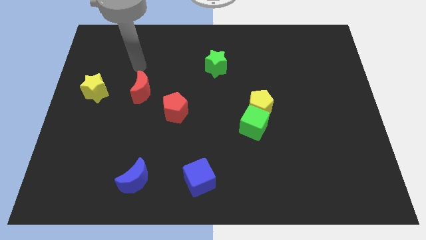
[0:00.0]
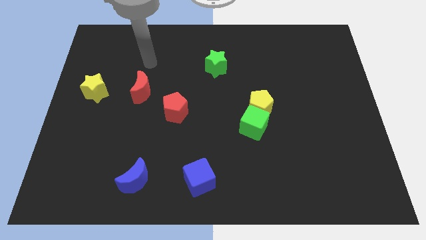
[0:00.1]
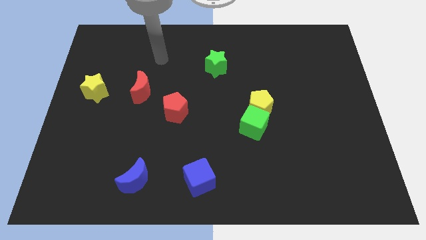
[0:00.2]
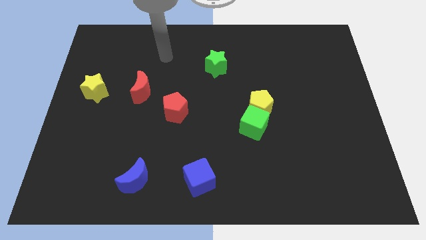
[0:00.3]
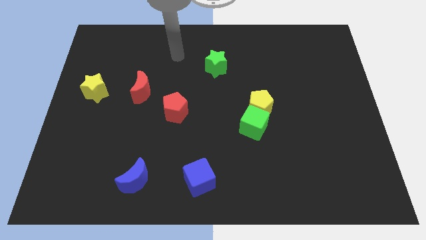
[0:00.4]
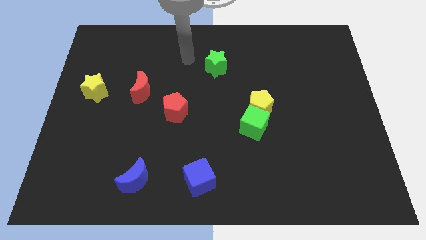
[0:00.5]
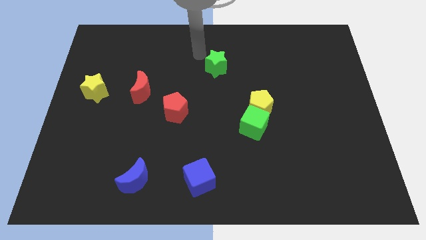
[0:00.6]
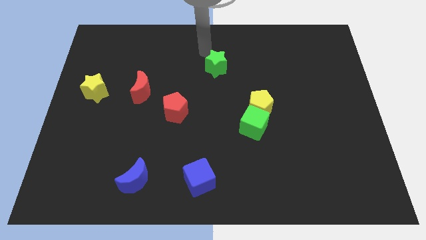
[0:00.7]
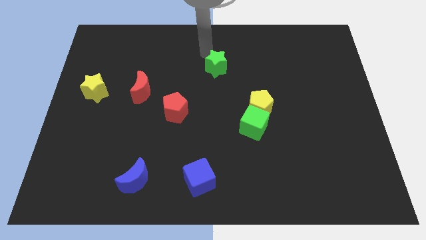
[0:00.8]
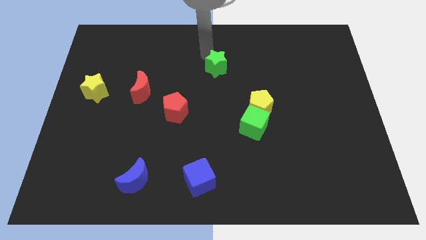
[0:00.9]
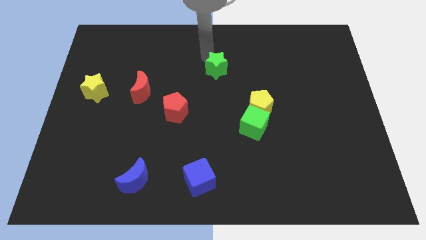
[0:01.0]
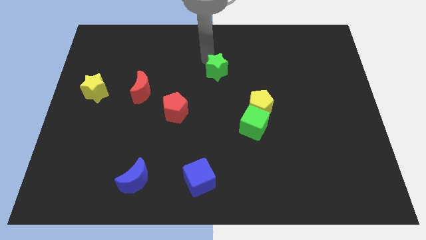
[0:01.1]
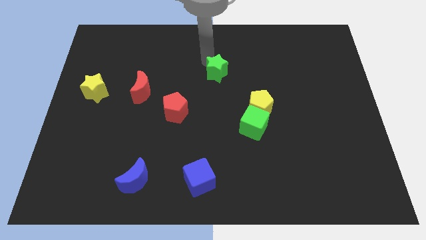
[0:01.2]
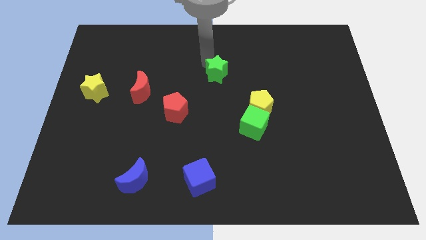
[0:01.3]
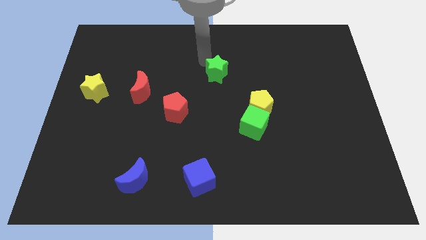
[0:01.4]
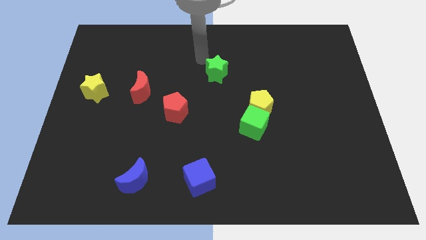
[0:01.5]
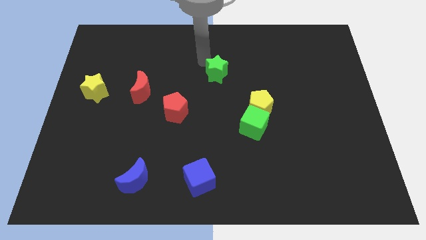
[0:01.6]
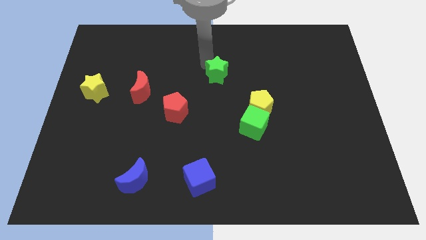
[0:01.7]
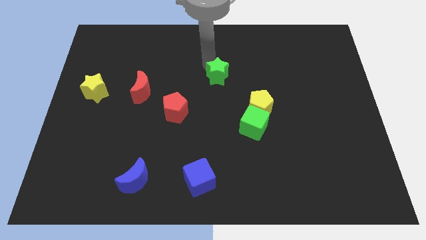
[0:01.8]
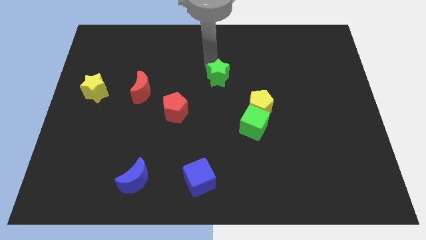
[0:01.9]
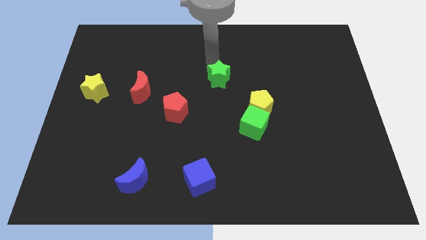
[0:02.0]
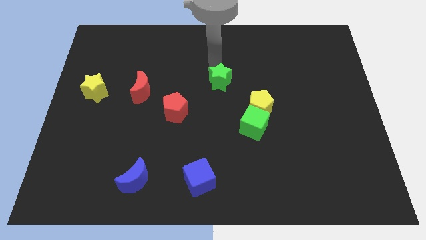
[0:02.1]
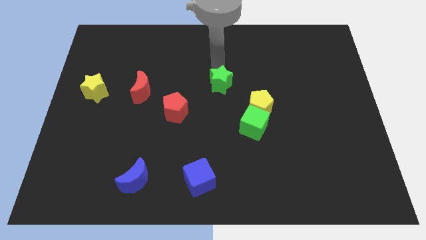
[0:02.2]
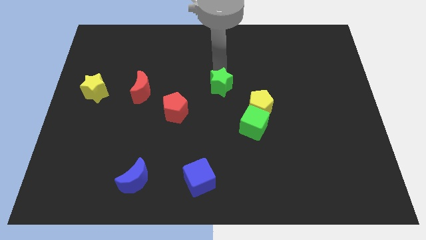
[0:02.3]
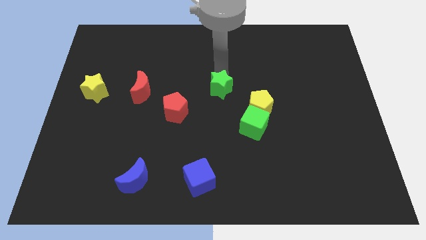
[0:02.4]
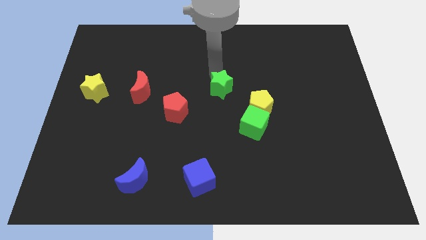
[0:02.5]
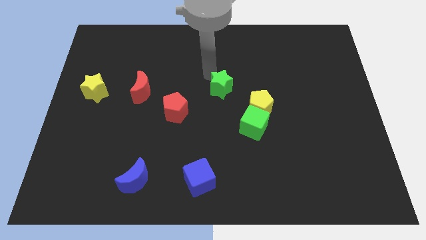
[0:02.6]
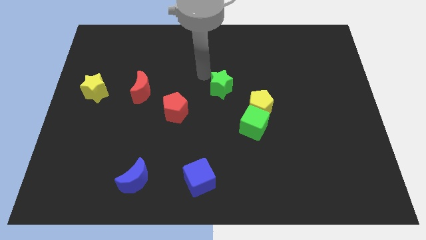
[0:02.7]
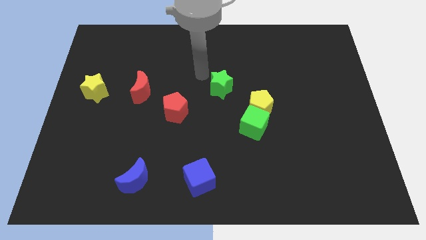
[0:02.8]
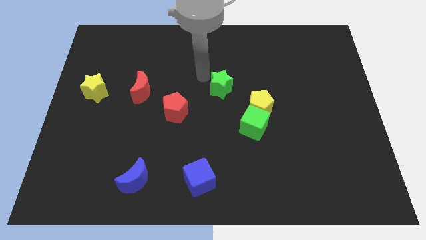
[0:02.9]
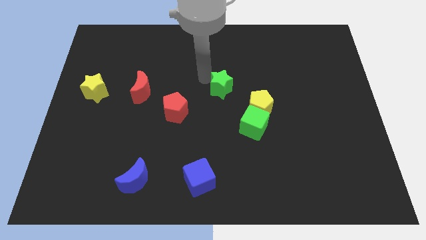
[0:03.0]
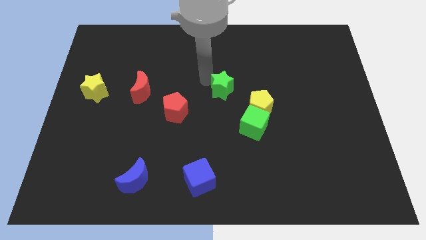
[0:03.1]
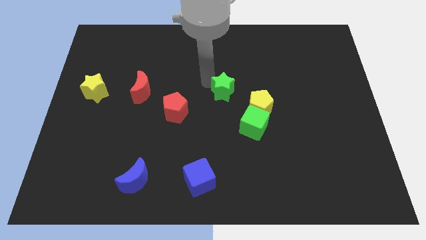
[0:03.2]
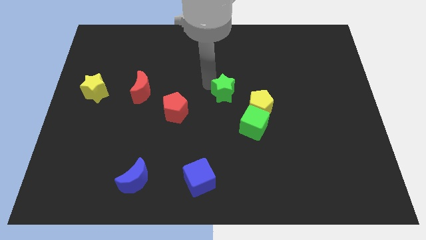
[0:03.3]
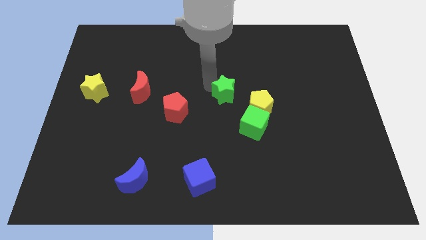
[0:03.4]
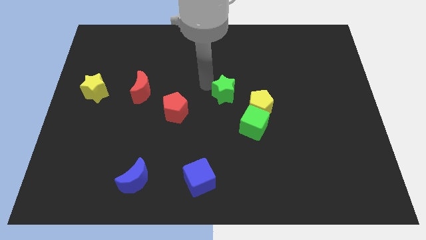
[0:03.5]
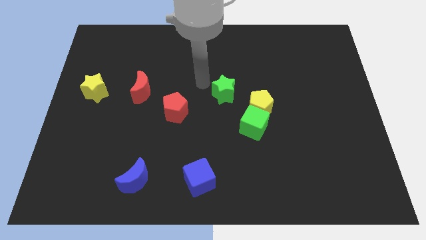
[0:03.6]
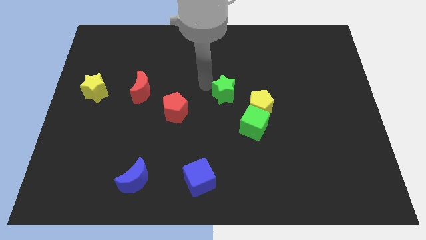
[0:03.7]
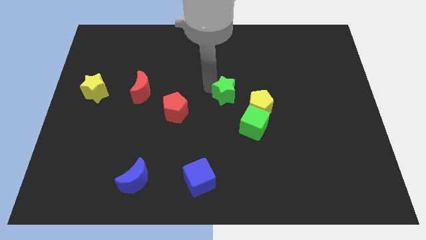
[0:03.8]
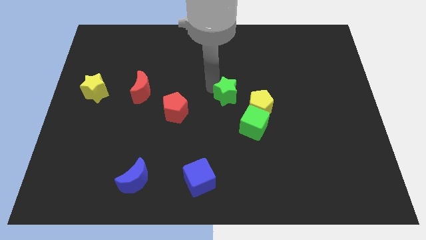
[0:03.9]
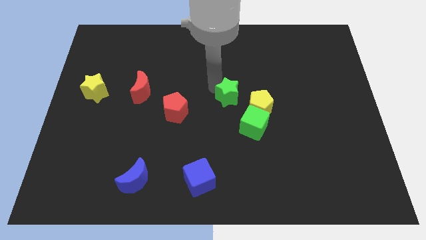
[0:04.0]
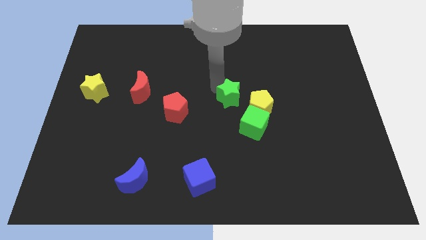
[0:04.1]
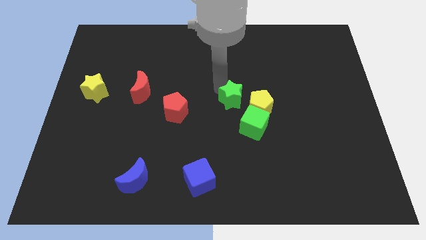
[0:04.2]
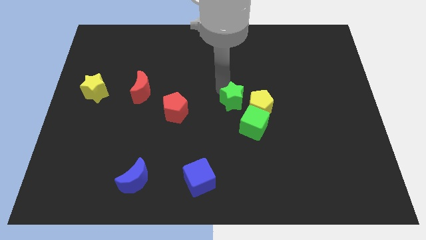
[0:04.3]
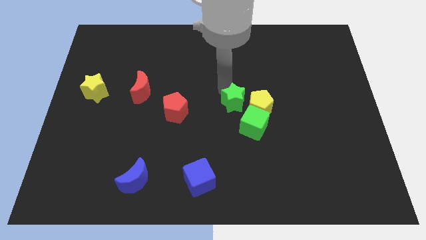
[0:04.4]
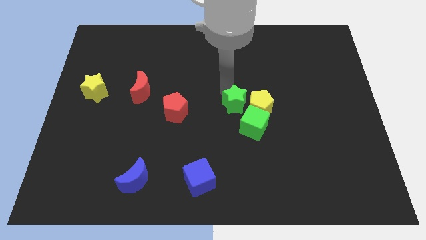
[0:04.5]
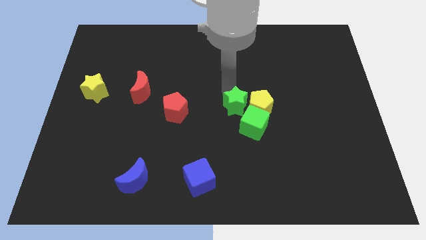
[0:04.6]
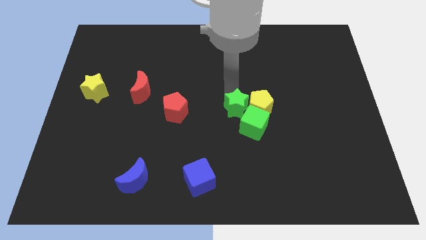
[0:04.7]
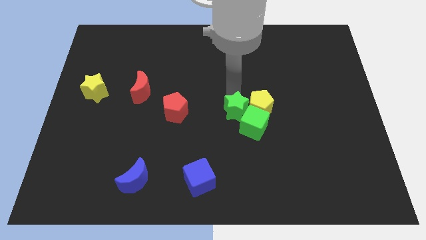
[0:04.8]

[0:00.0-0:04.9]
push the green star close to the green cube

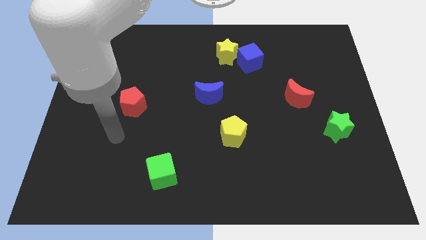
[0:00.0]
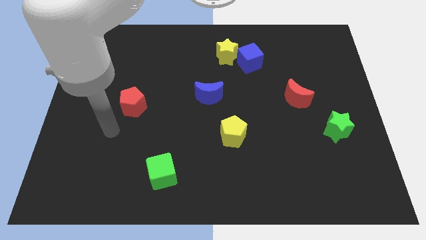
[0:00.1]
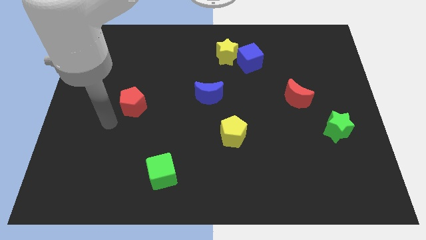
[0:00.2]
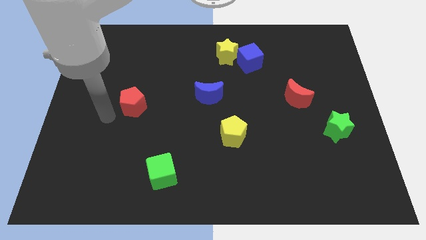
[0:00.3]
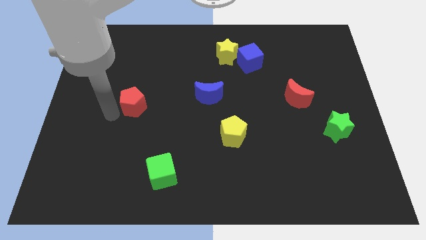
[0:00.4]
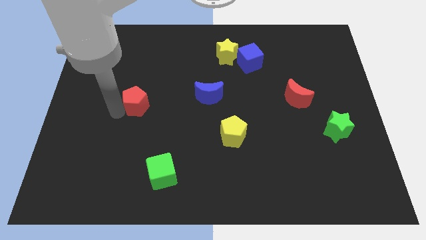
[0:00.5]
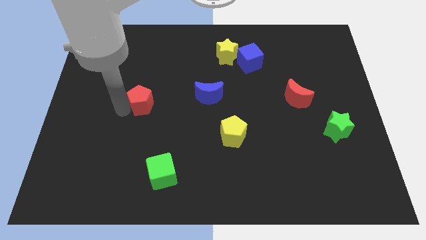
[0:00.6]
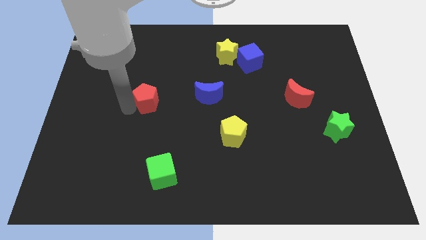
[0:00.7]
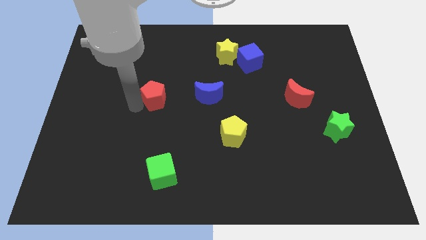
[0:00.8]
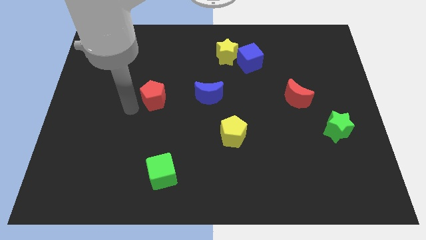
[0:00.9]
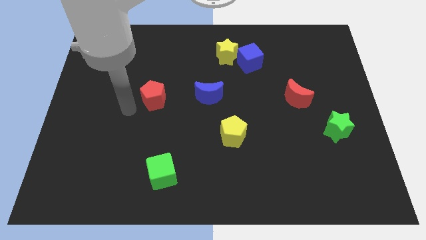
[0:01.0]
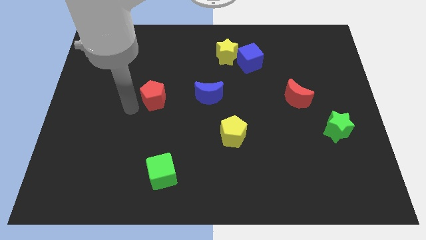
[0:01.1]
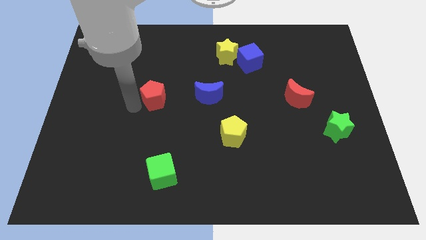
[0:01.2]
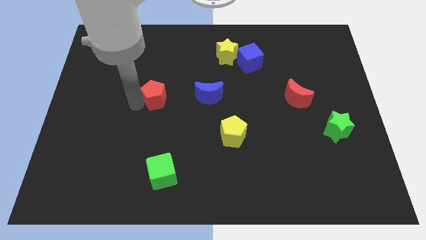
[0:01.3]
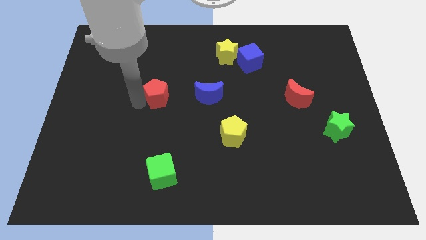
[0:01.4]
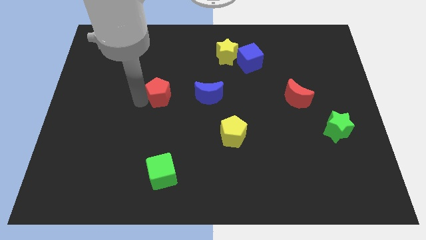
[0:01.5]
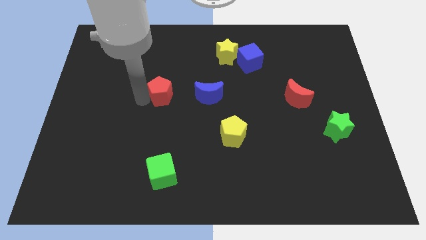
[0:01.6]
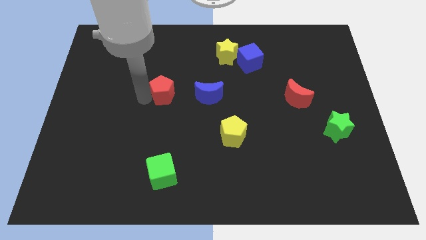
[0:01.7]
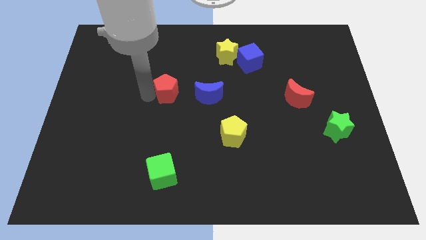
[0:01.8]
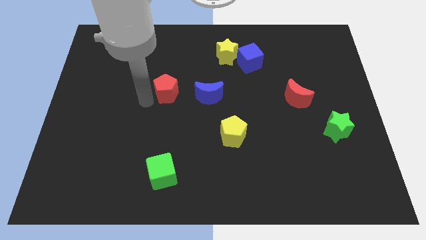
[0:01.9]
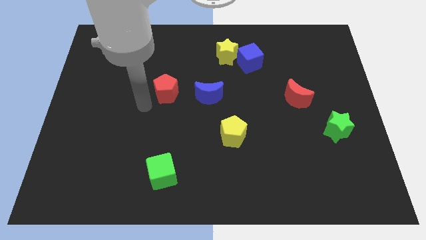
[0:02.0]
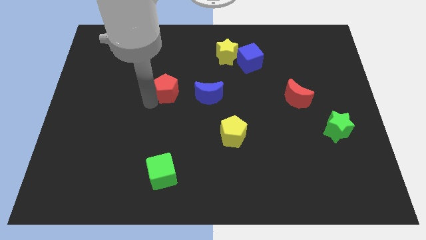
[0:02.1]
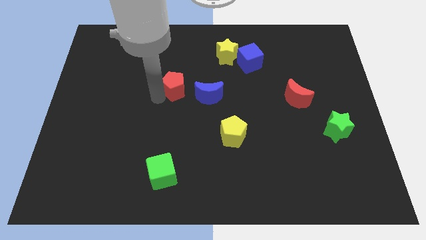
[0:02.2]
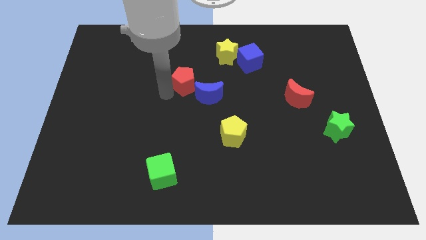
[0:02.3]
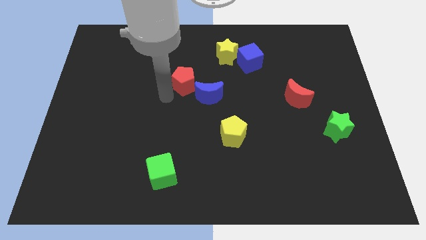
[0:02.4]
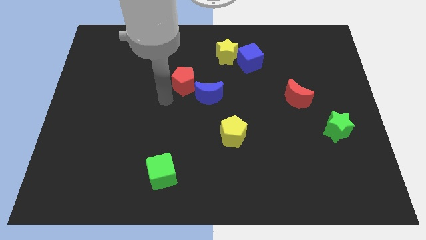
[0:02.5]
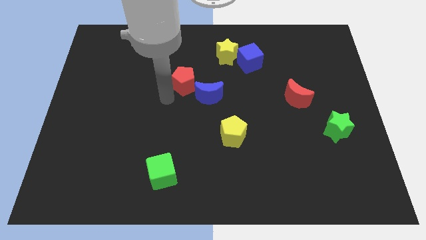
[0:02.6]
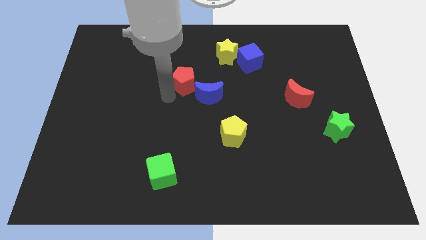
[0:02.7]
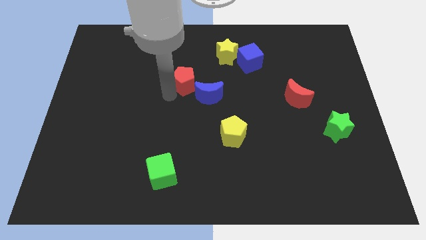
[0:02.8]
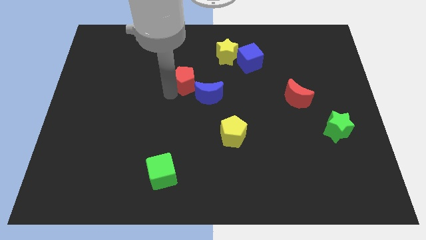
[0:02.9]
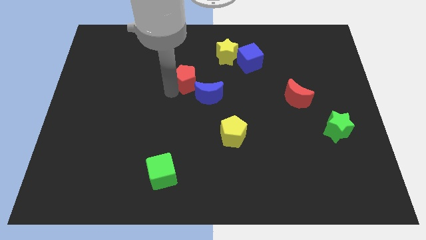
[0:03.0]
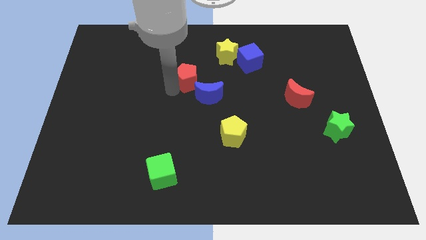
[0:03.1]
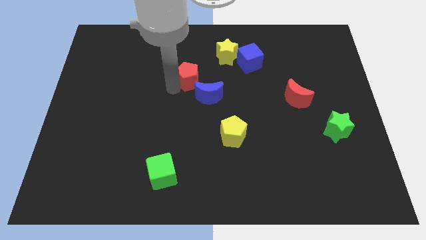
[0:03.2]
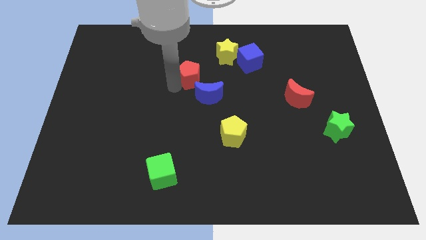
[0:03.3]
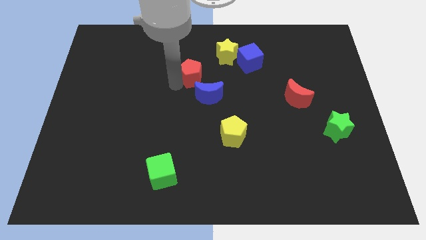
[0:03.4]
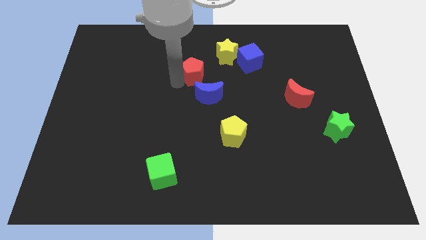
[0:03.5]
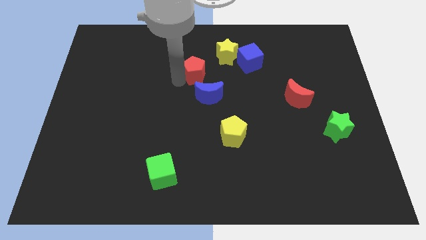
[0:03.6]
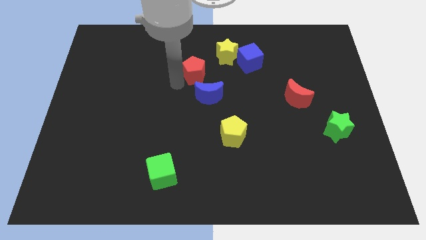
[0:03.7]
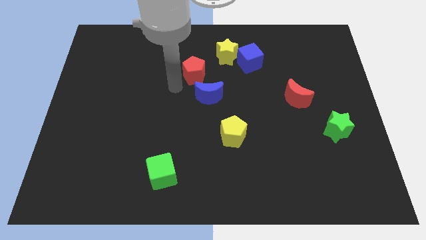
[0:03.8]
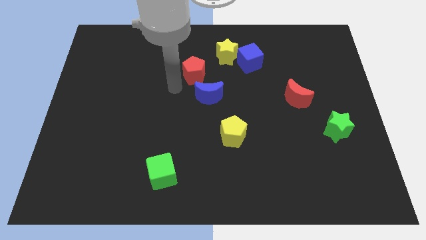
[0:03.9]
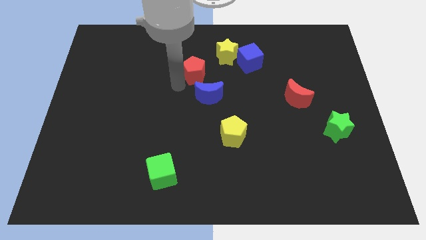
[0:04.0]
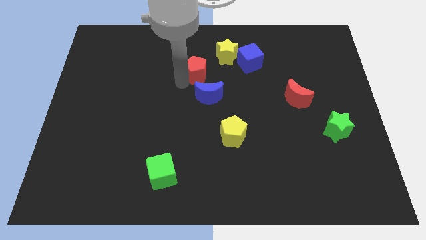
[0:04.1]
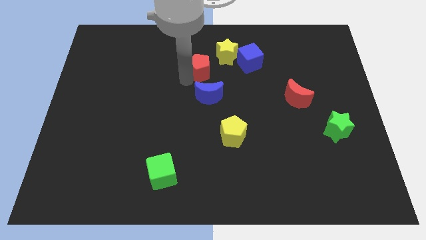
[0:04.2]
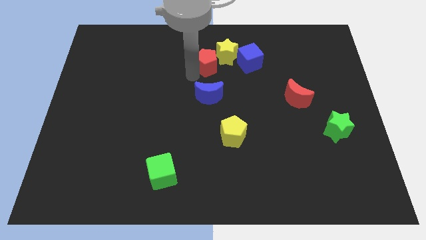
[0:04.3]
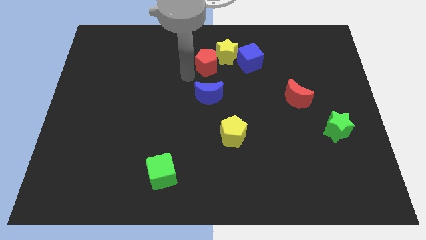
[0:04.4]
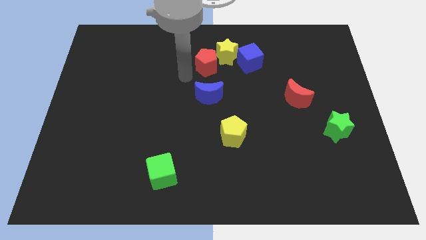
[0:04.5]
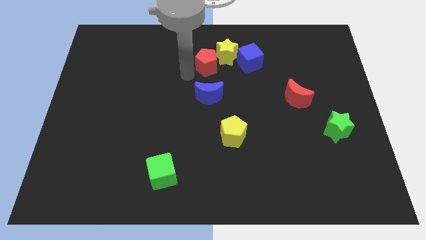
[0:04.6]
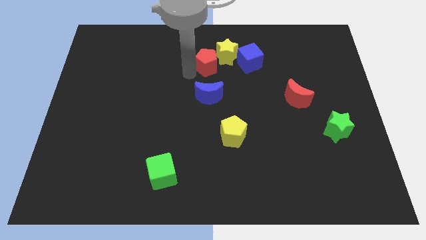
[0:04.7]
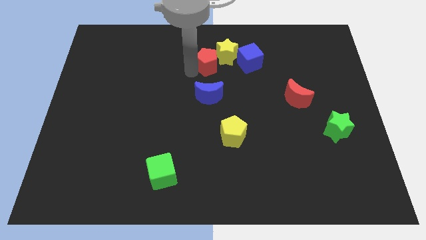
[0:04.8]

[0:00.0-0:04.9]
put the red pentagon to the yellow star
